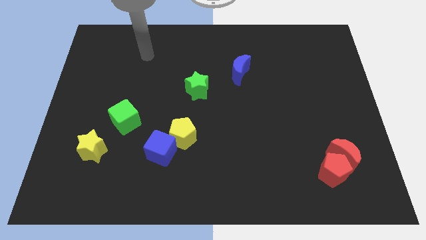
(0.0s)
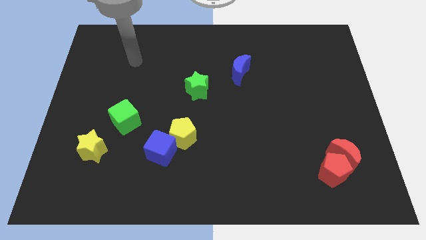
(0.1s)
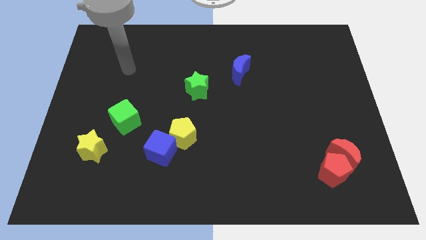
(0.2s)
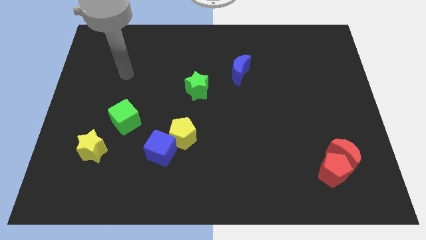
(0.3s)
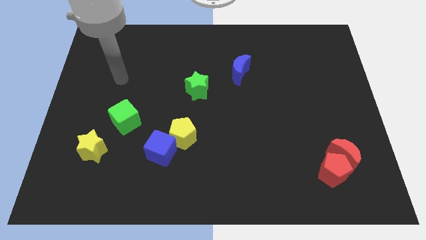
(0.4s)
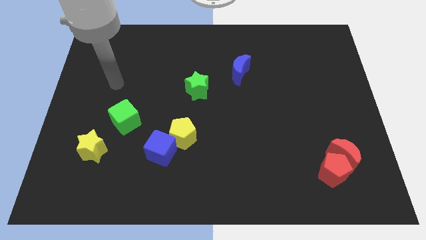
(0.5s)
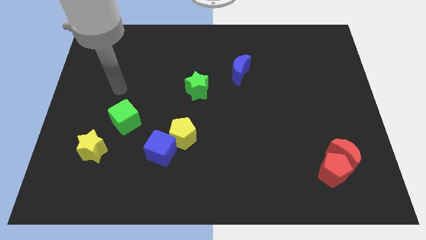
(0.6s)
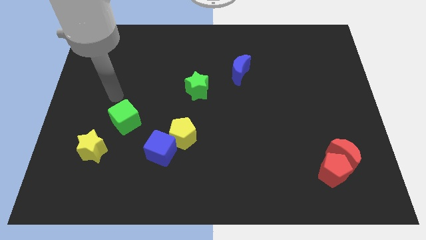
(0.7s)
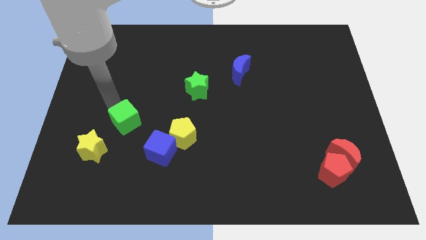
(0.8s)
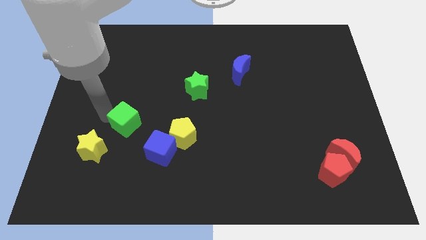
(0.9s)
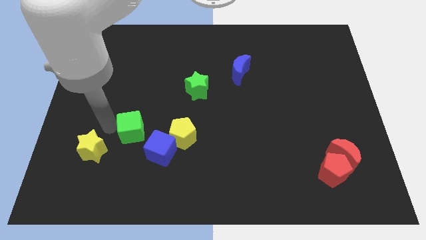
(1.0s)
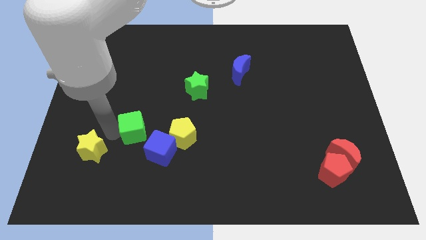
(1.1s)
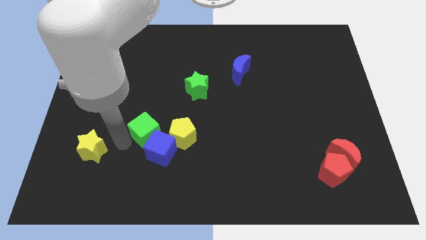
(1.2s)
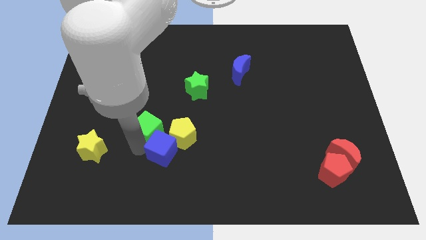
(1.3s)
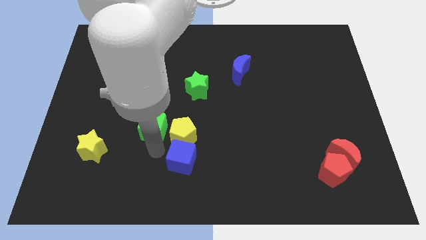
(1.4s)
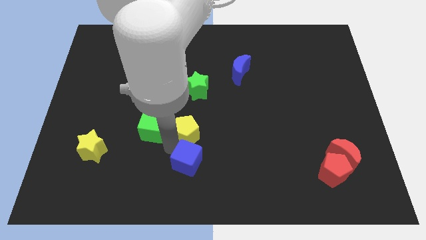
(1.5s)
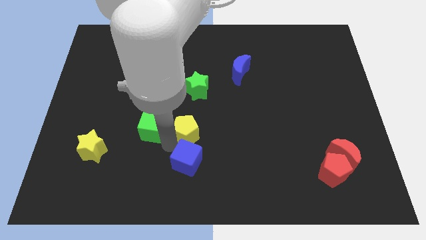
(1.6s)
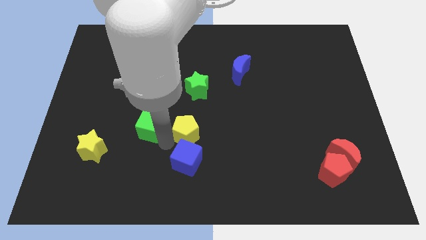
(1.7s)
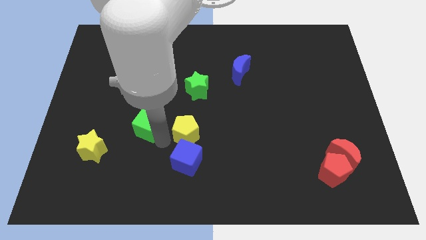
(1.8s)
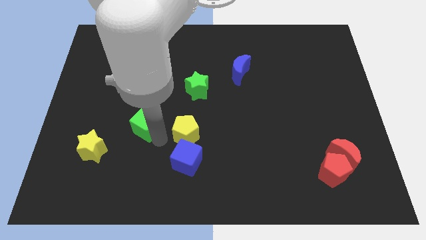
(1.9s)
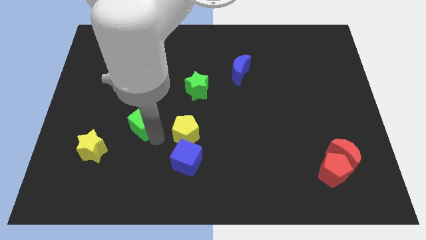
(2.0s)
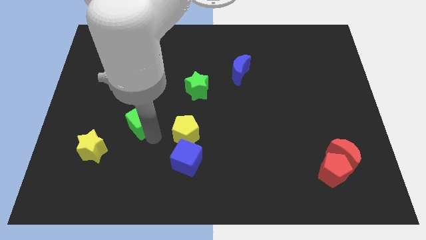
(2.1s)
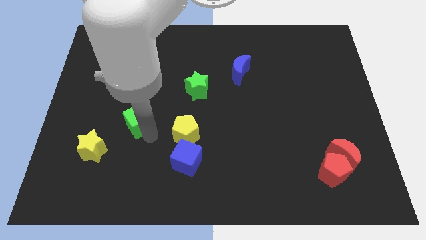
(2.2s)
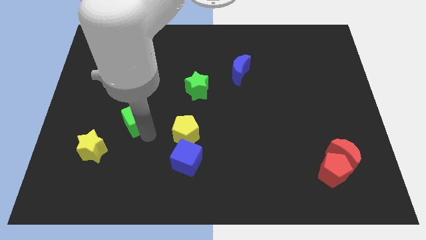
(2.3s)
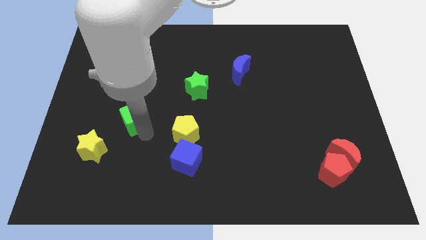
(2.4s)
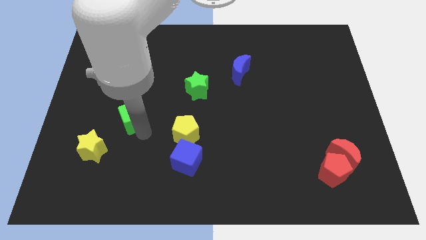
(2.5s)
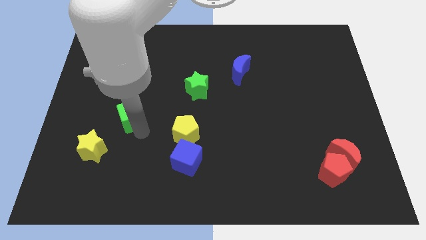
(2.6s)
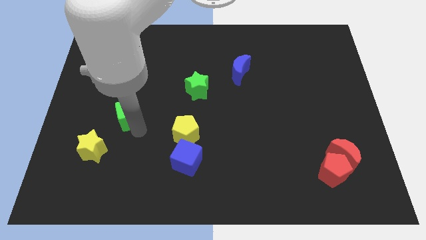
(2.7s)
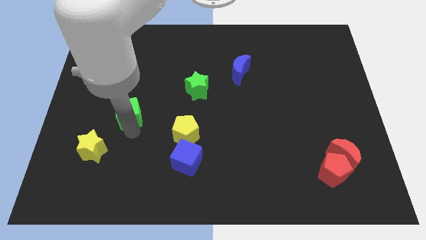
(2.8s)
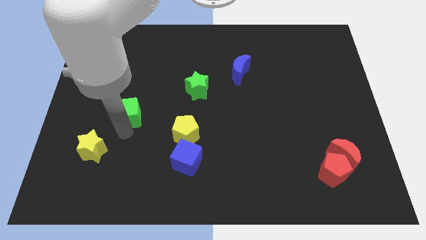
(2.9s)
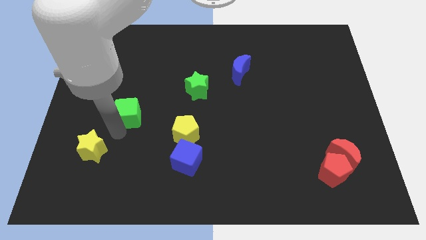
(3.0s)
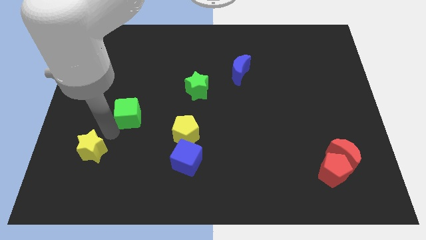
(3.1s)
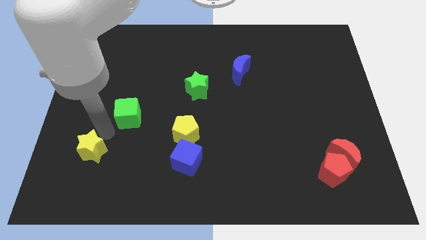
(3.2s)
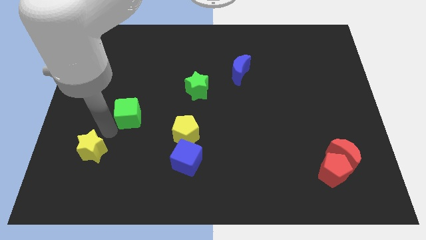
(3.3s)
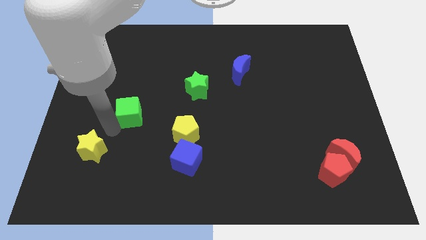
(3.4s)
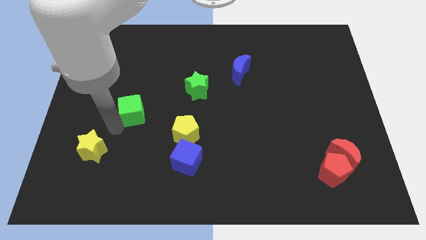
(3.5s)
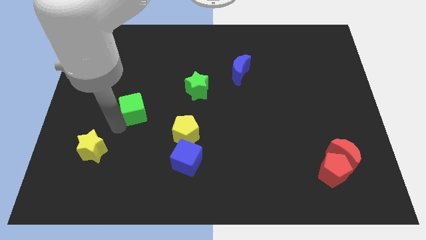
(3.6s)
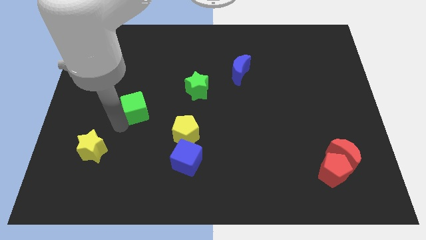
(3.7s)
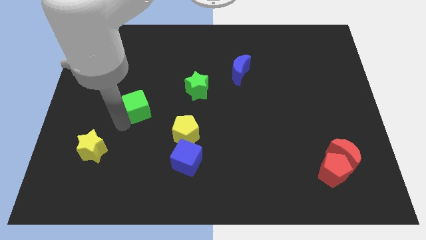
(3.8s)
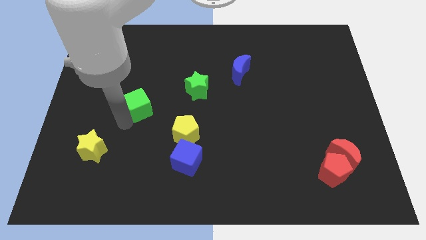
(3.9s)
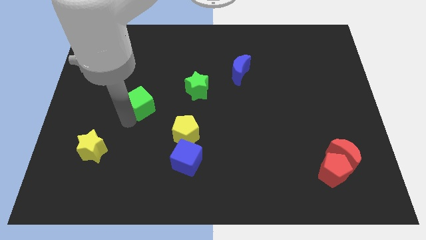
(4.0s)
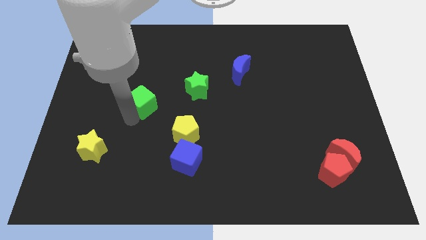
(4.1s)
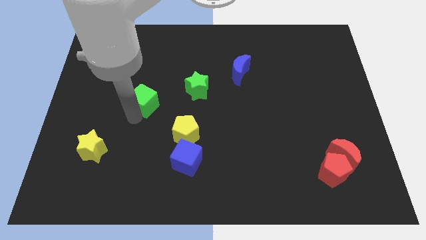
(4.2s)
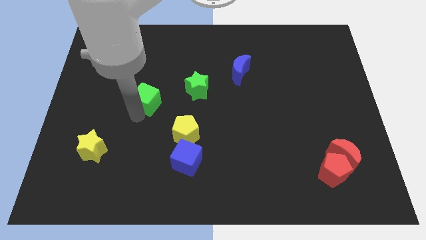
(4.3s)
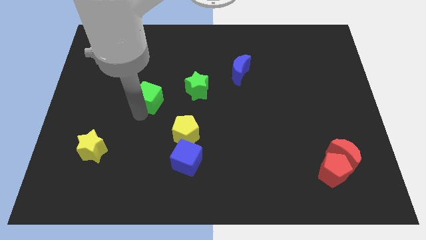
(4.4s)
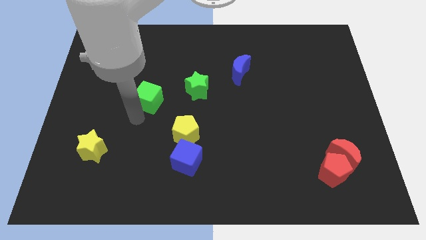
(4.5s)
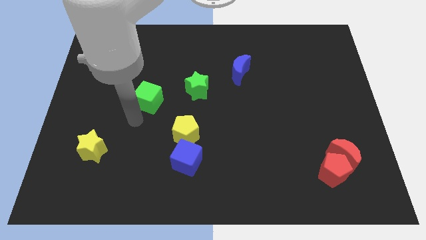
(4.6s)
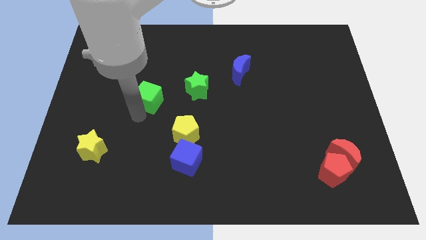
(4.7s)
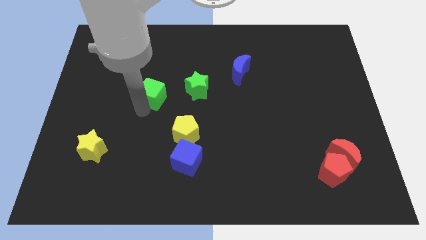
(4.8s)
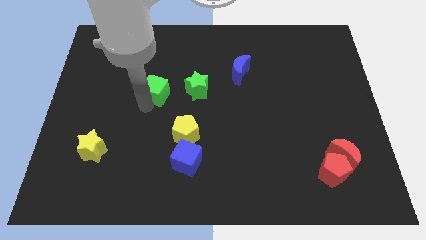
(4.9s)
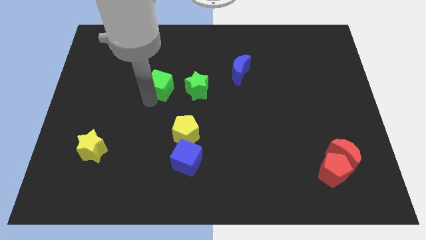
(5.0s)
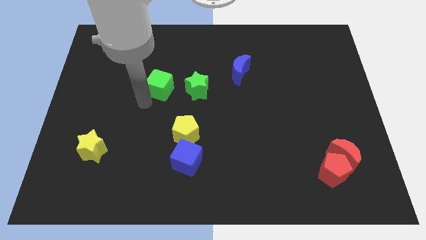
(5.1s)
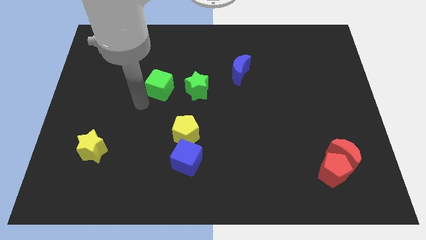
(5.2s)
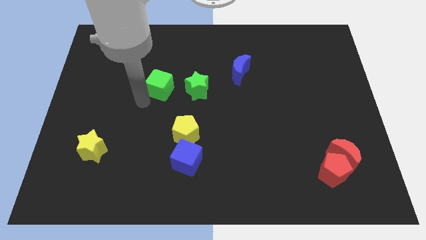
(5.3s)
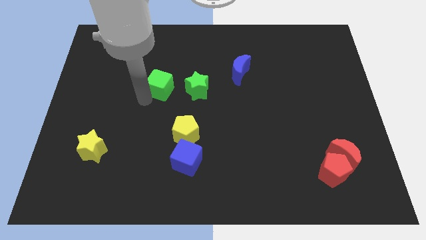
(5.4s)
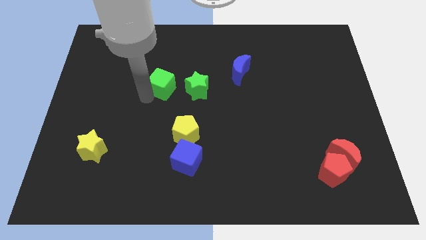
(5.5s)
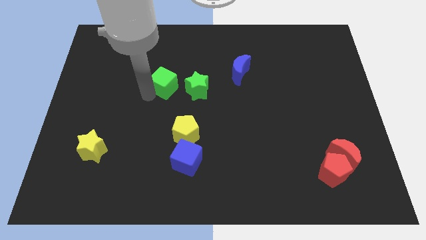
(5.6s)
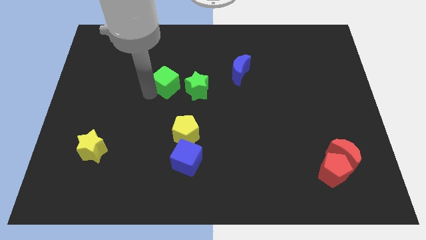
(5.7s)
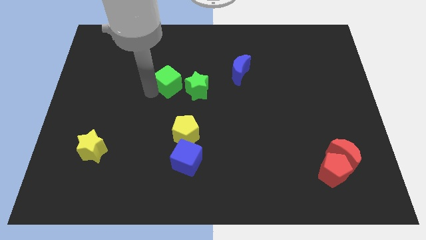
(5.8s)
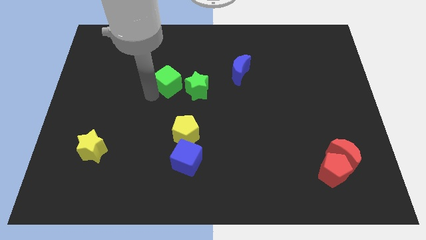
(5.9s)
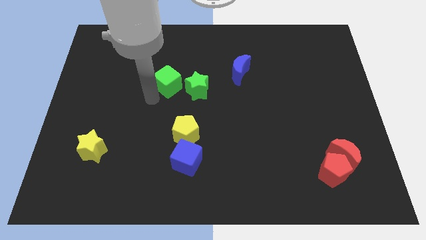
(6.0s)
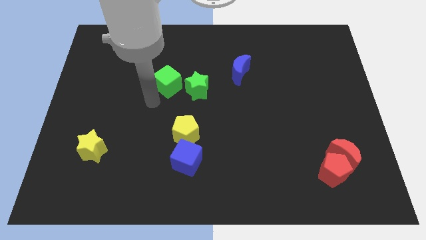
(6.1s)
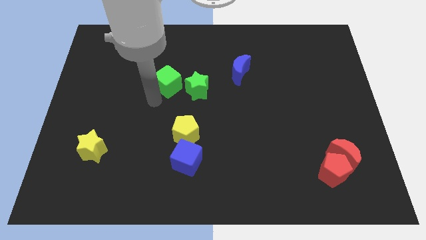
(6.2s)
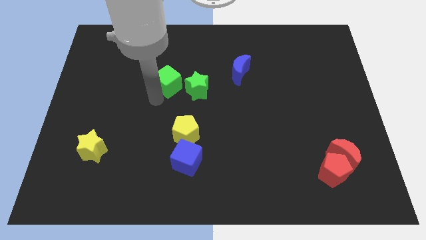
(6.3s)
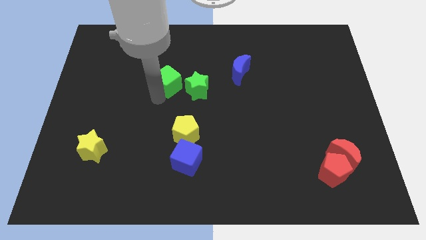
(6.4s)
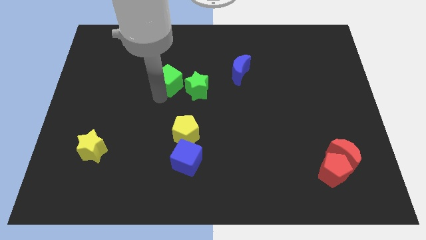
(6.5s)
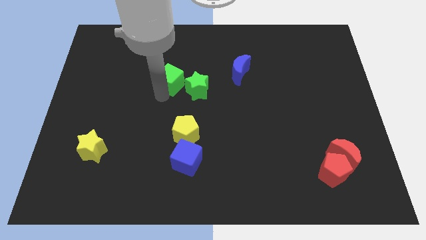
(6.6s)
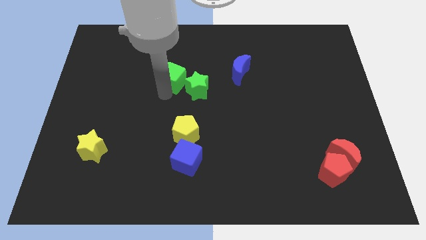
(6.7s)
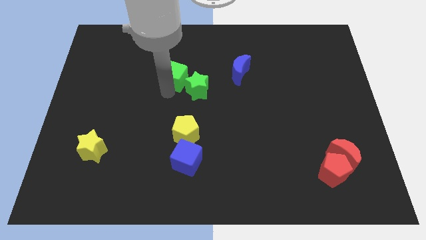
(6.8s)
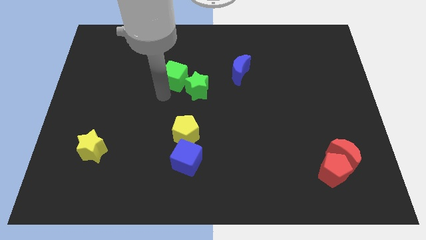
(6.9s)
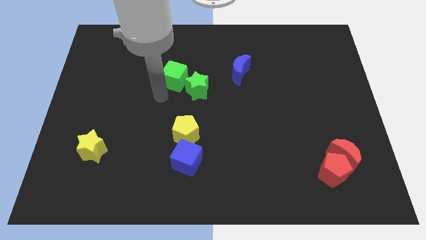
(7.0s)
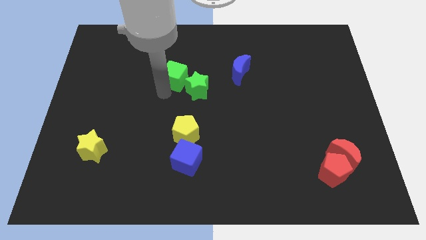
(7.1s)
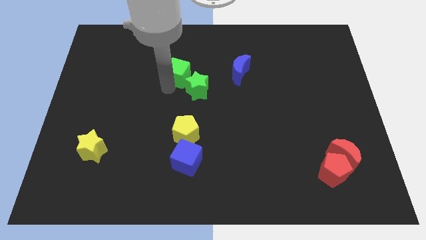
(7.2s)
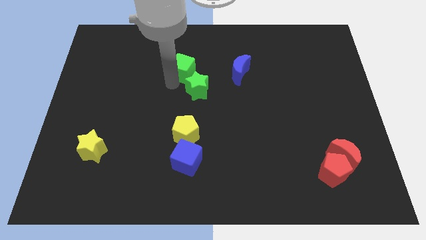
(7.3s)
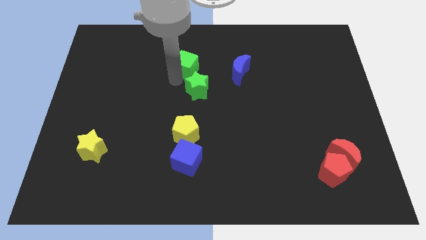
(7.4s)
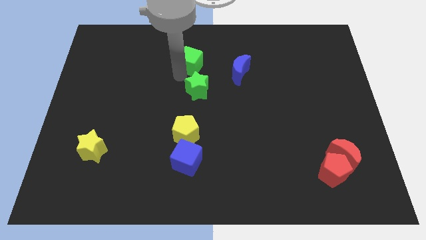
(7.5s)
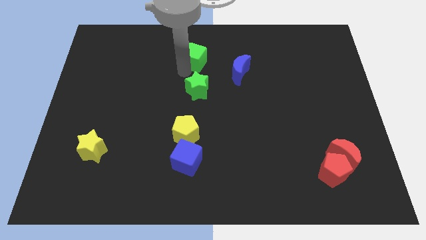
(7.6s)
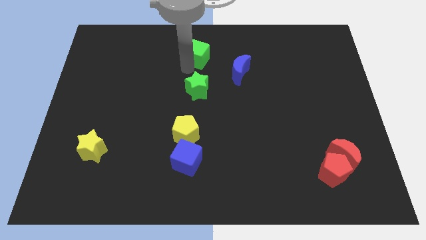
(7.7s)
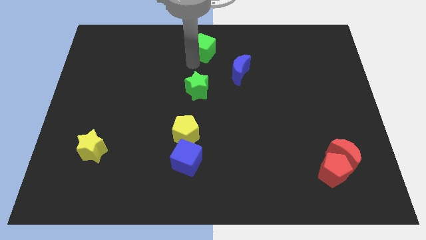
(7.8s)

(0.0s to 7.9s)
push the green cube to the towards your base
